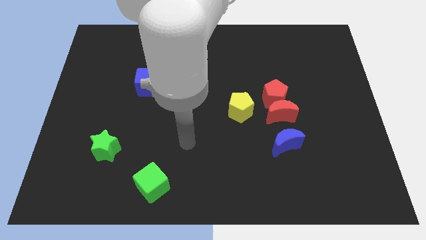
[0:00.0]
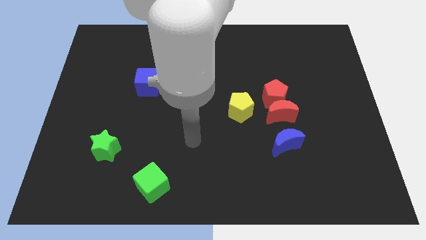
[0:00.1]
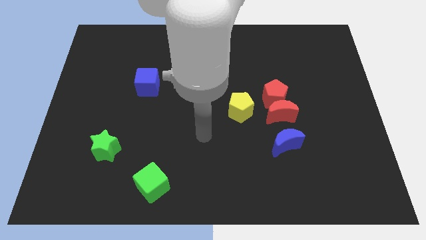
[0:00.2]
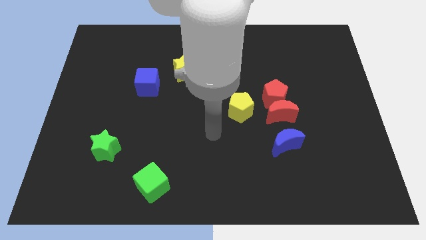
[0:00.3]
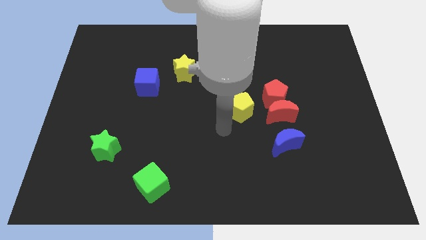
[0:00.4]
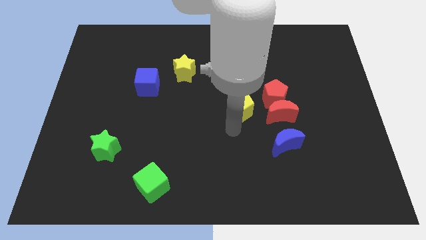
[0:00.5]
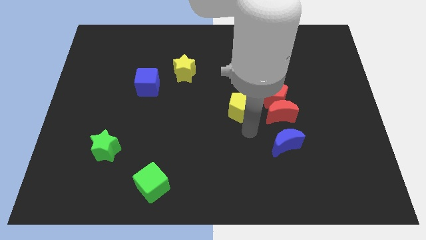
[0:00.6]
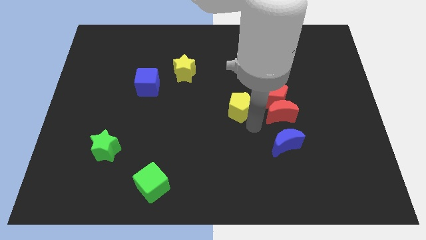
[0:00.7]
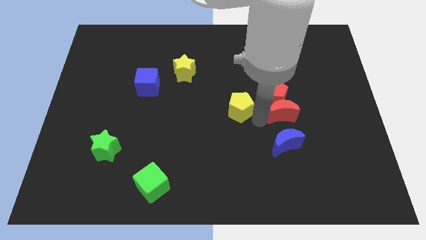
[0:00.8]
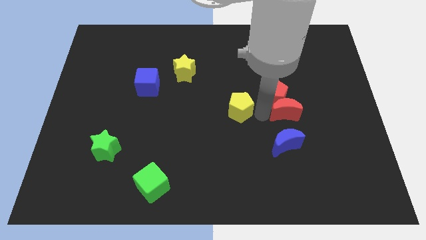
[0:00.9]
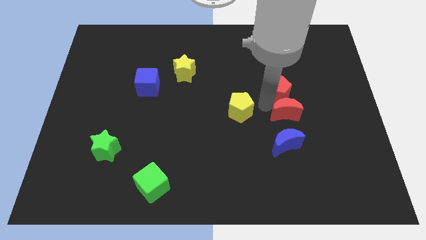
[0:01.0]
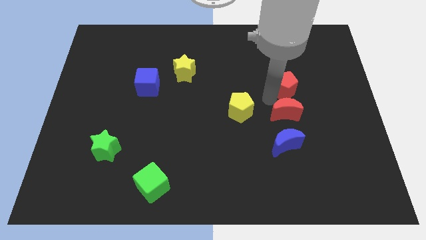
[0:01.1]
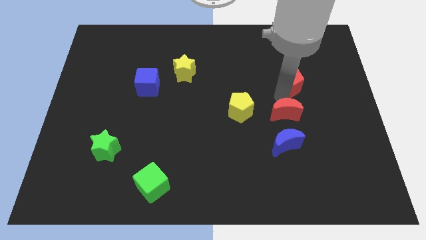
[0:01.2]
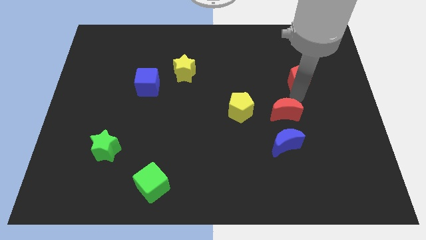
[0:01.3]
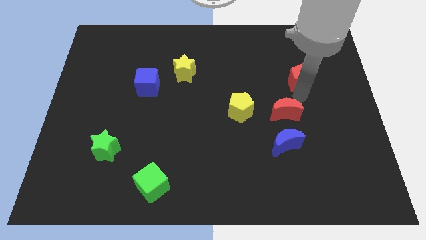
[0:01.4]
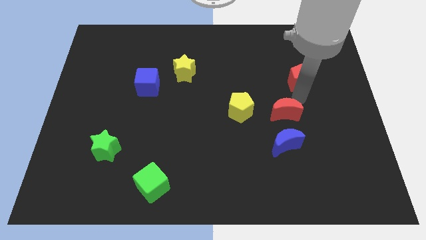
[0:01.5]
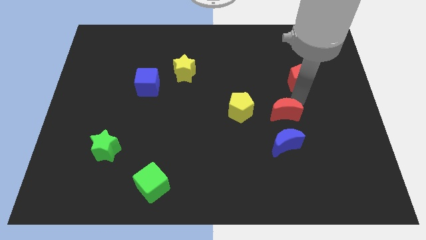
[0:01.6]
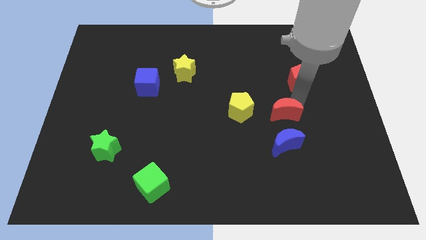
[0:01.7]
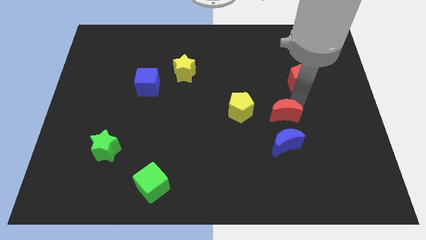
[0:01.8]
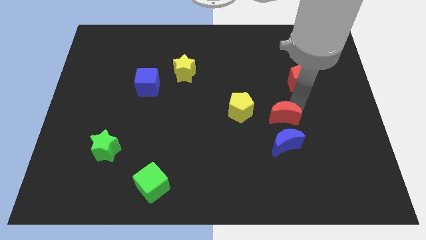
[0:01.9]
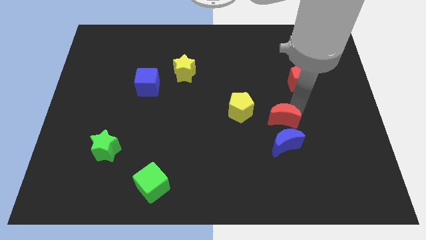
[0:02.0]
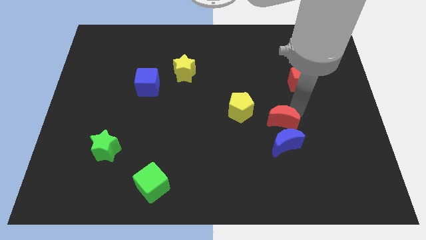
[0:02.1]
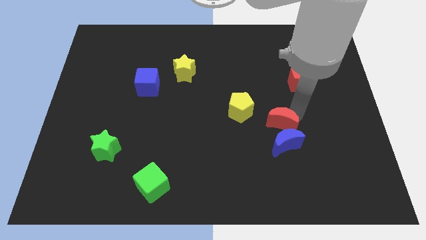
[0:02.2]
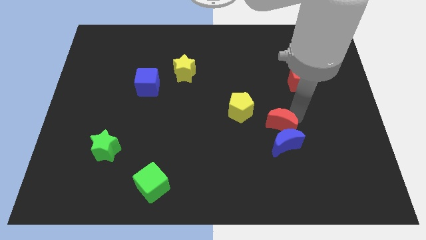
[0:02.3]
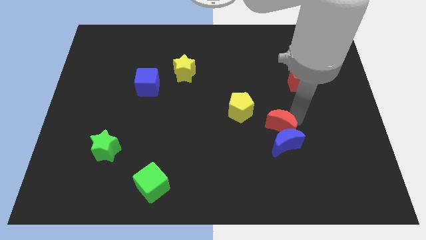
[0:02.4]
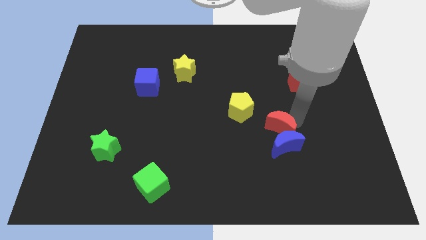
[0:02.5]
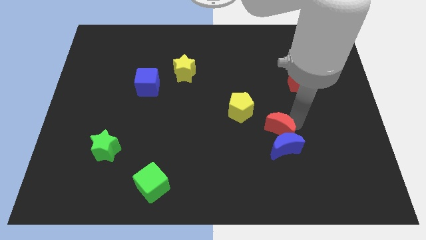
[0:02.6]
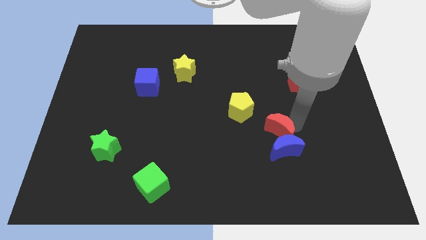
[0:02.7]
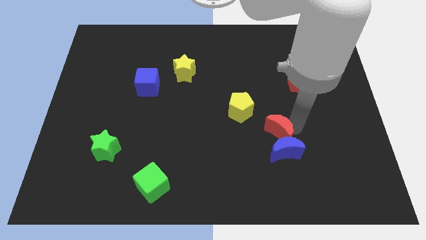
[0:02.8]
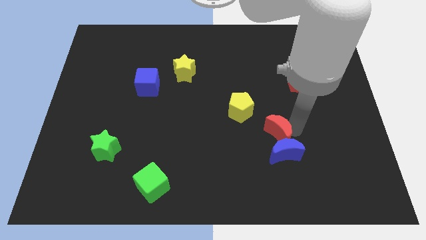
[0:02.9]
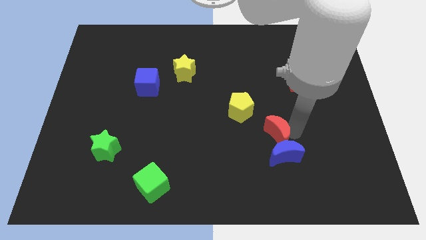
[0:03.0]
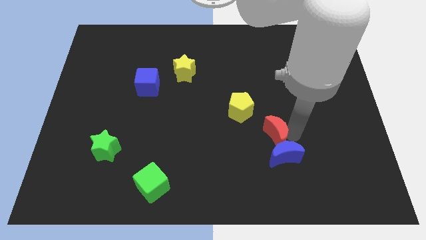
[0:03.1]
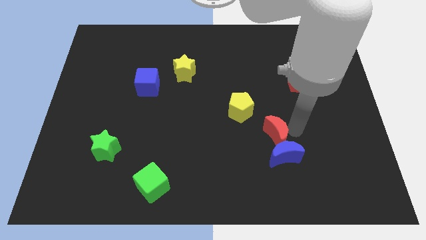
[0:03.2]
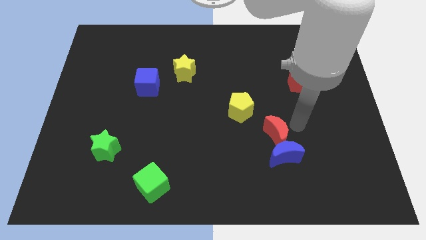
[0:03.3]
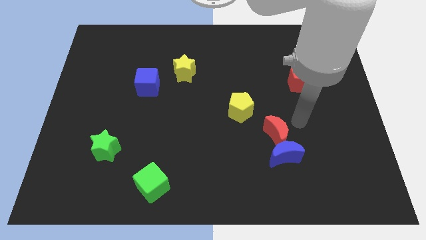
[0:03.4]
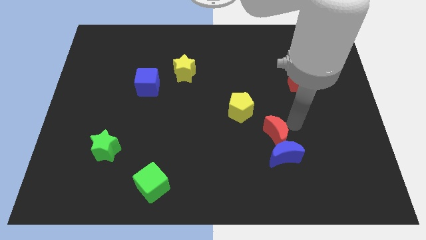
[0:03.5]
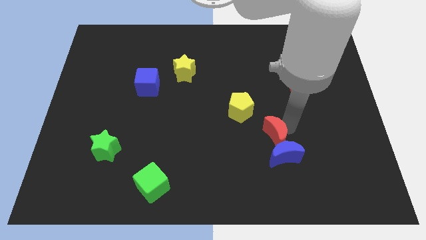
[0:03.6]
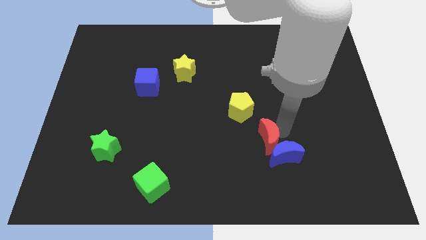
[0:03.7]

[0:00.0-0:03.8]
slightly slide the red moon down and to the left diagonally

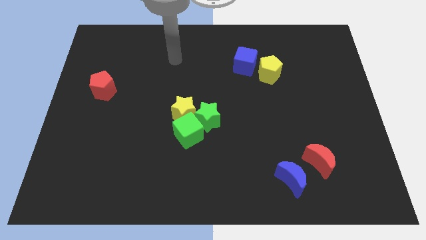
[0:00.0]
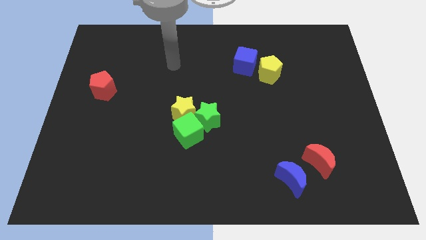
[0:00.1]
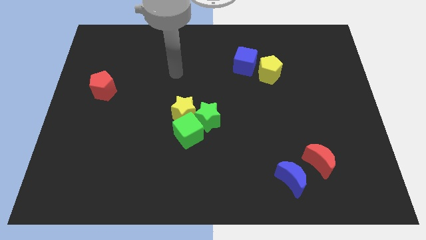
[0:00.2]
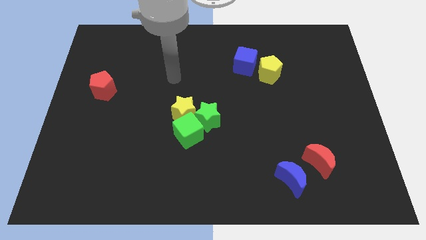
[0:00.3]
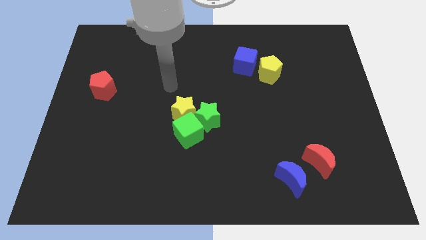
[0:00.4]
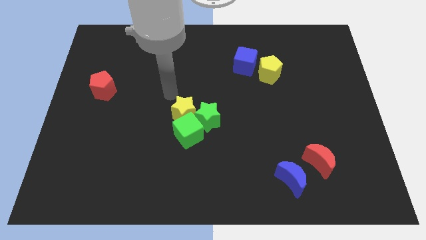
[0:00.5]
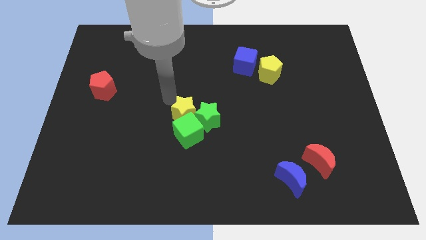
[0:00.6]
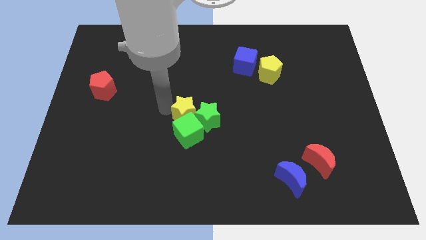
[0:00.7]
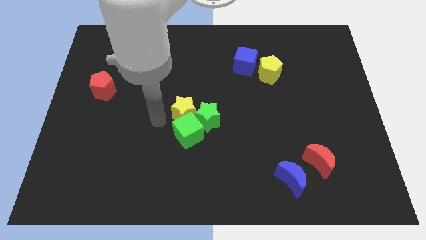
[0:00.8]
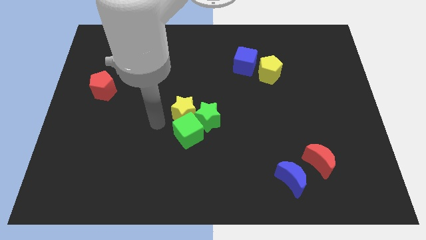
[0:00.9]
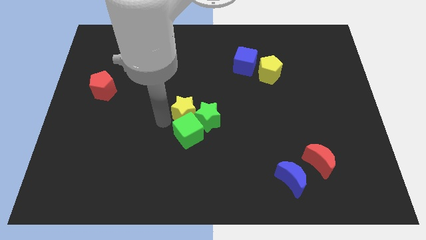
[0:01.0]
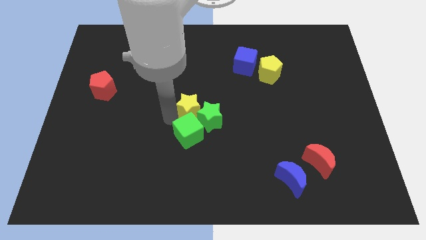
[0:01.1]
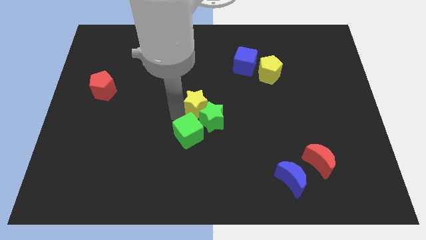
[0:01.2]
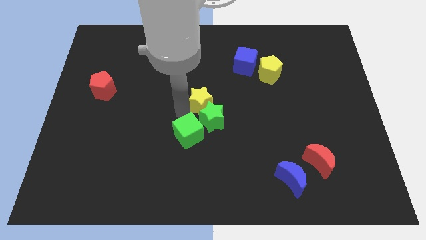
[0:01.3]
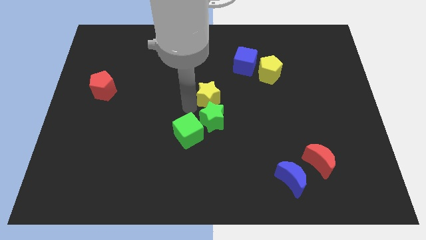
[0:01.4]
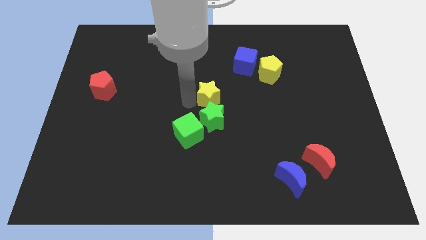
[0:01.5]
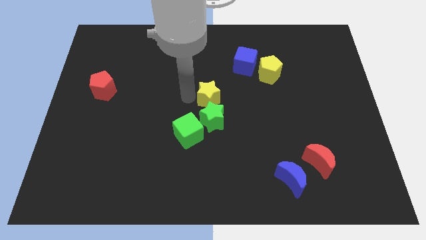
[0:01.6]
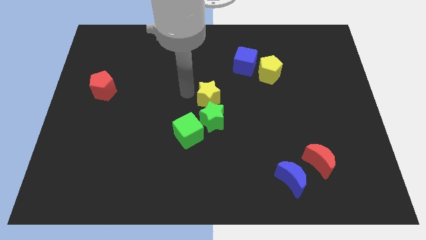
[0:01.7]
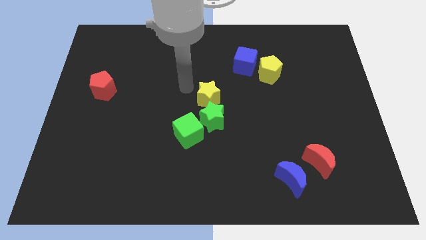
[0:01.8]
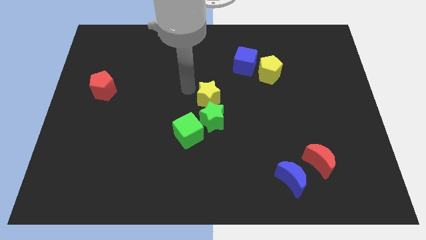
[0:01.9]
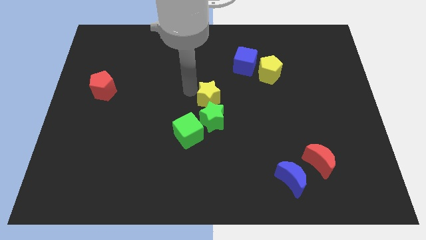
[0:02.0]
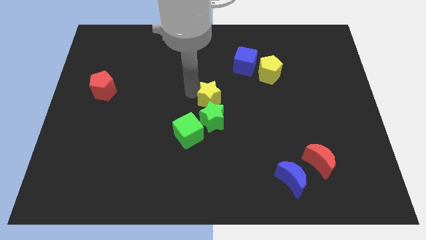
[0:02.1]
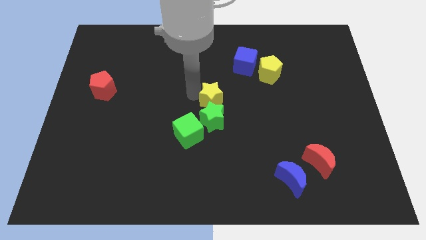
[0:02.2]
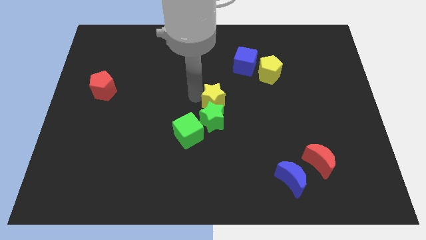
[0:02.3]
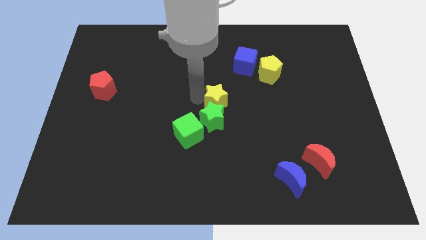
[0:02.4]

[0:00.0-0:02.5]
slightly push the yellow star right

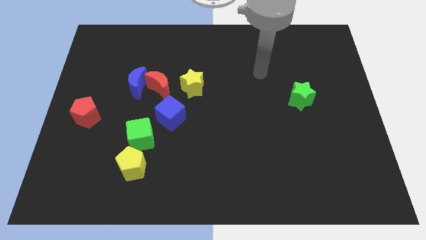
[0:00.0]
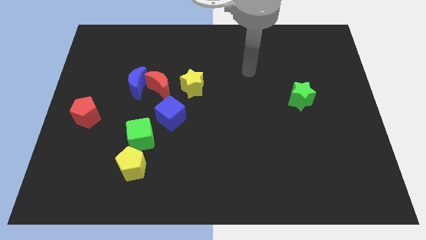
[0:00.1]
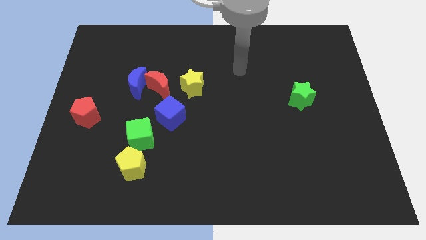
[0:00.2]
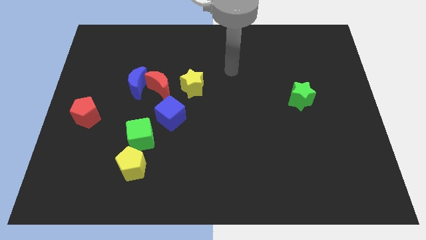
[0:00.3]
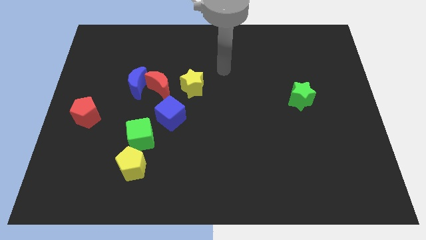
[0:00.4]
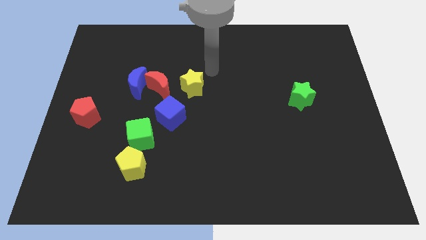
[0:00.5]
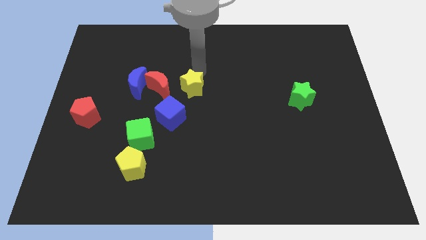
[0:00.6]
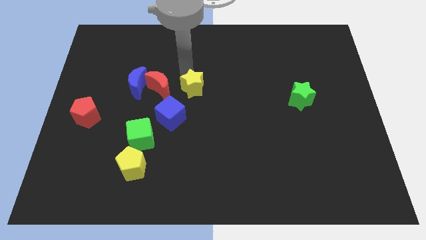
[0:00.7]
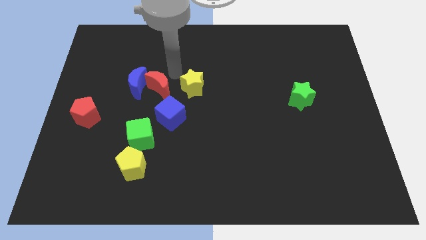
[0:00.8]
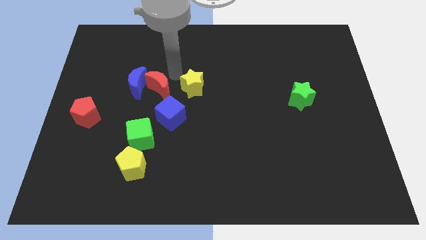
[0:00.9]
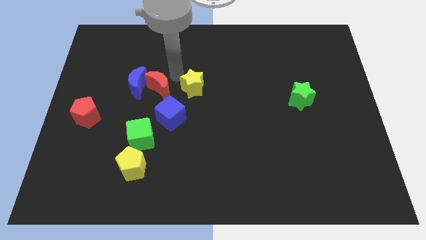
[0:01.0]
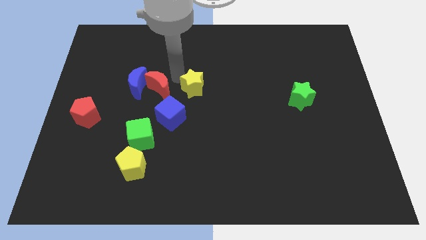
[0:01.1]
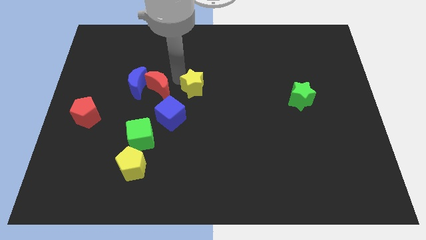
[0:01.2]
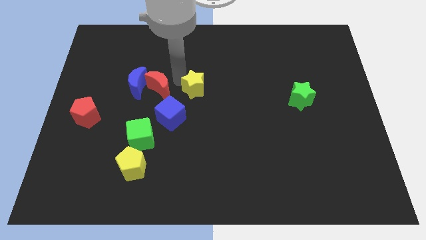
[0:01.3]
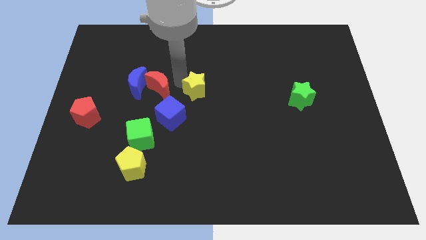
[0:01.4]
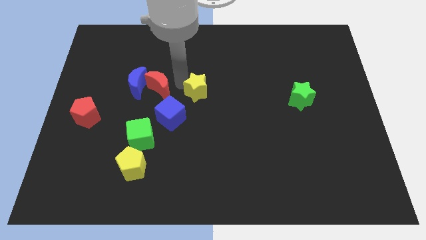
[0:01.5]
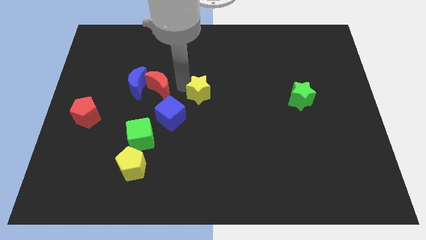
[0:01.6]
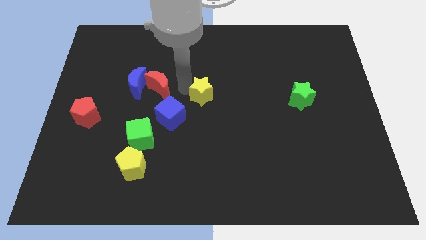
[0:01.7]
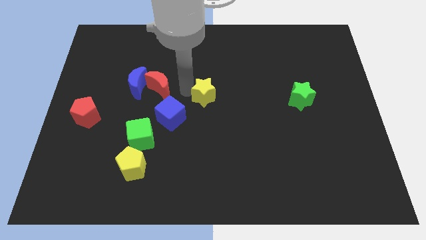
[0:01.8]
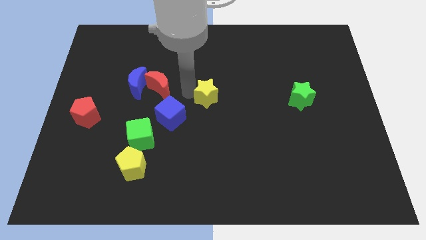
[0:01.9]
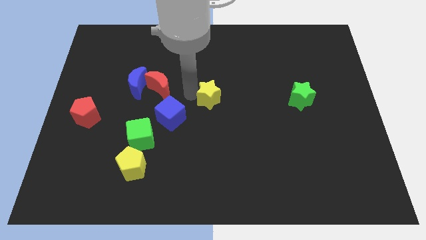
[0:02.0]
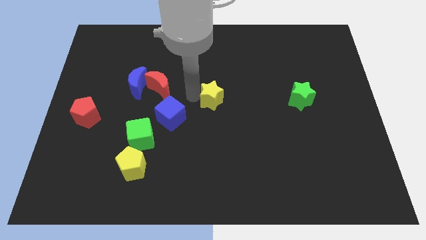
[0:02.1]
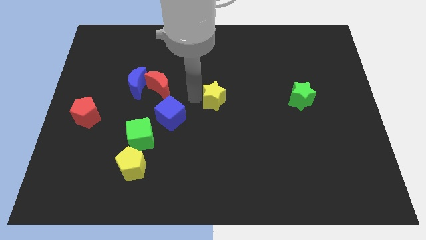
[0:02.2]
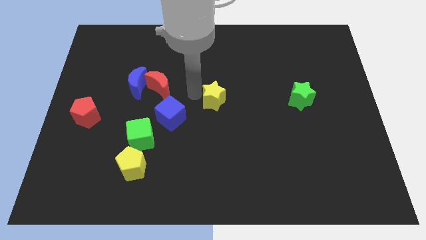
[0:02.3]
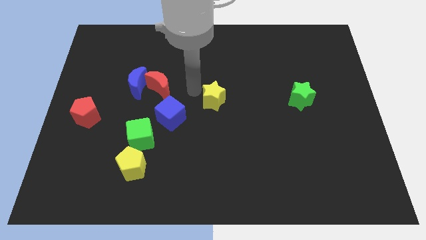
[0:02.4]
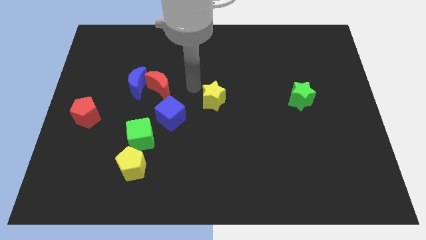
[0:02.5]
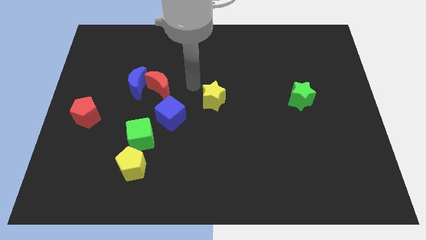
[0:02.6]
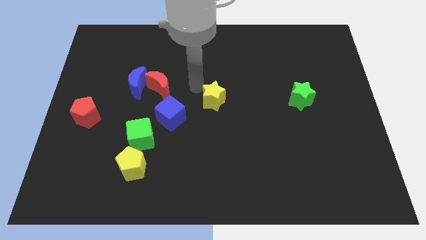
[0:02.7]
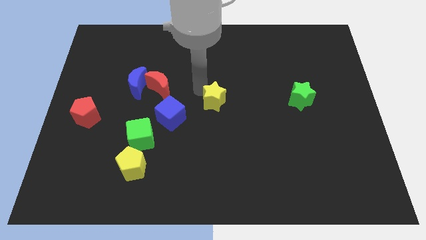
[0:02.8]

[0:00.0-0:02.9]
push the yellow star a little bit downwards and to the right diagonally
